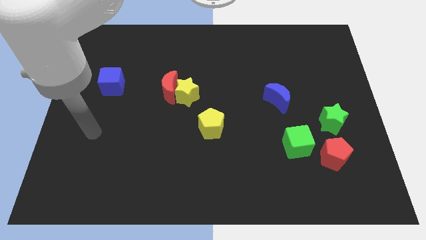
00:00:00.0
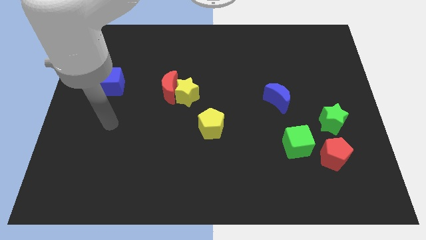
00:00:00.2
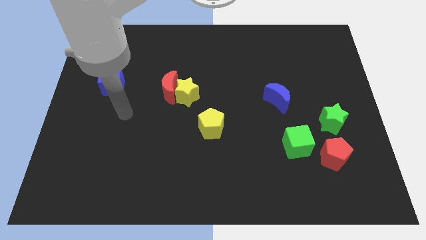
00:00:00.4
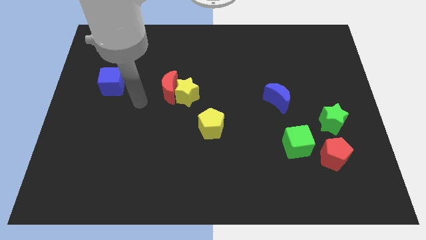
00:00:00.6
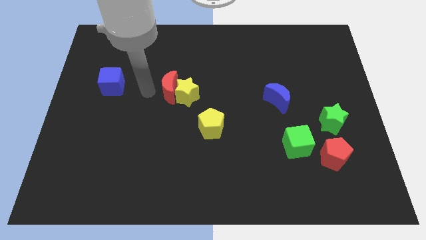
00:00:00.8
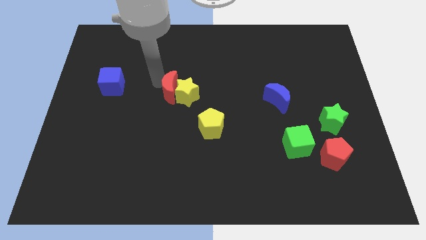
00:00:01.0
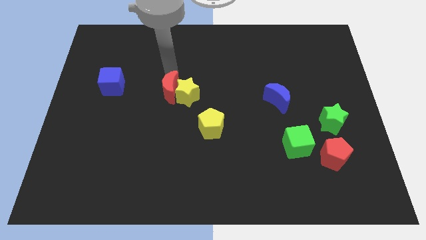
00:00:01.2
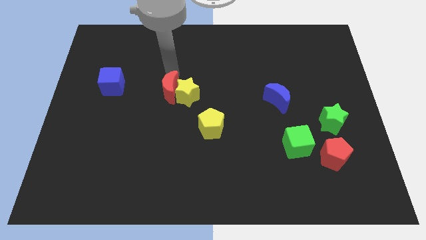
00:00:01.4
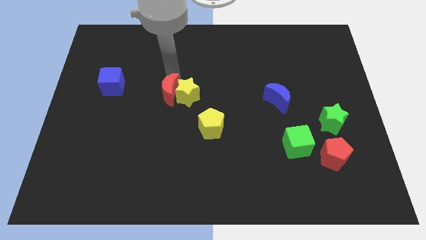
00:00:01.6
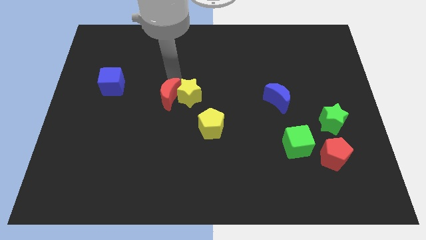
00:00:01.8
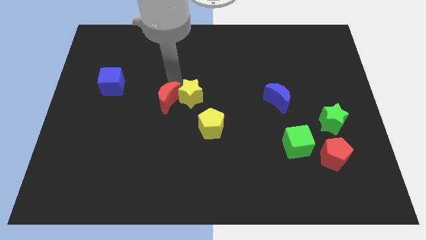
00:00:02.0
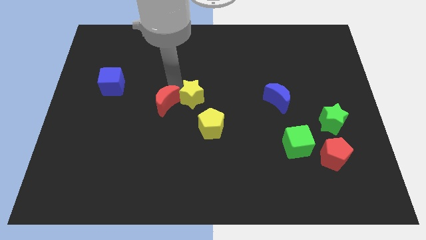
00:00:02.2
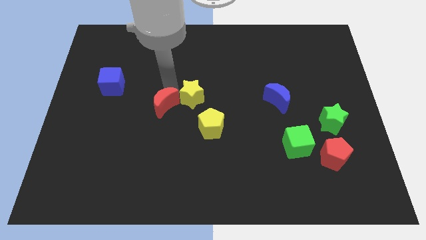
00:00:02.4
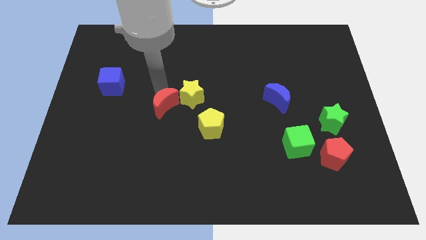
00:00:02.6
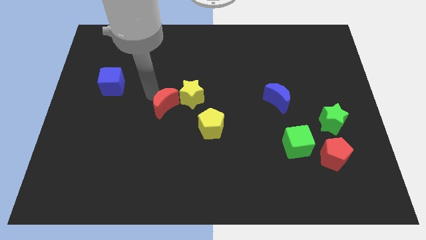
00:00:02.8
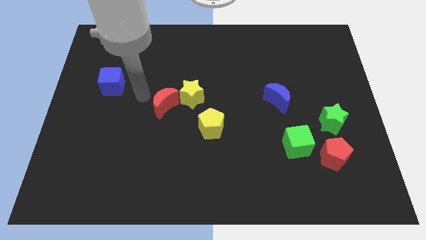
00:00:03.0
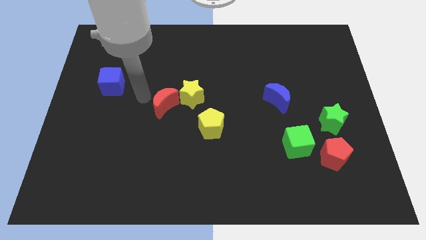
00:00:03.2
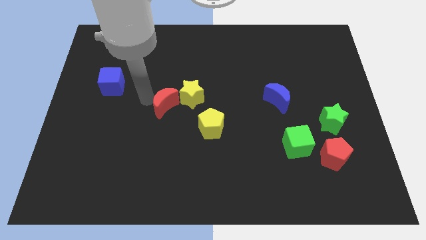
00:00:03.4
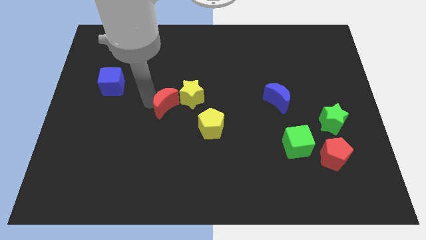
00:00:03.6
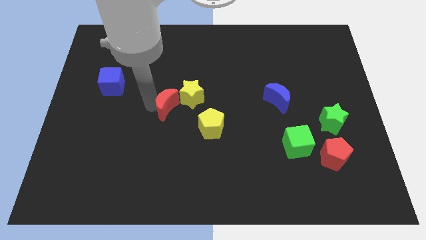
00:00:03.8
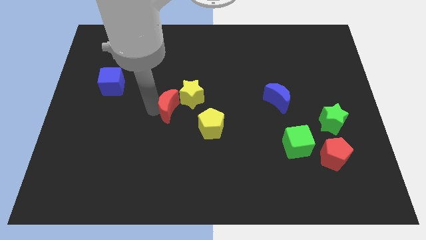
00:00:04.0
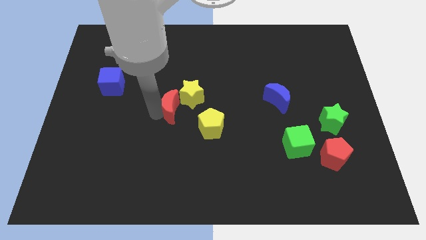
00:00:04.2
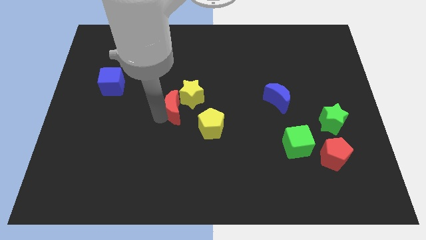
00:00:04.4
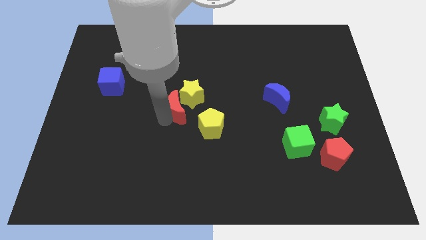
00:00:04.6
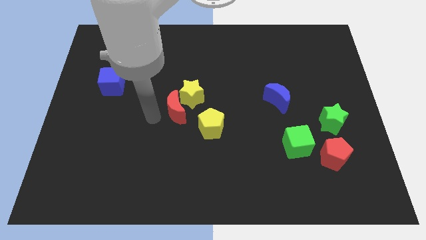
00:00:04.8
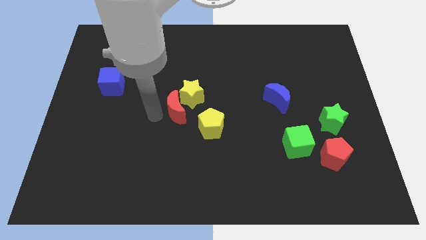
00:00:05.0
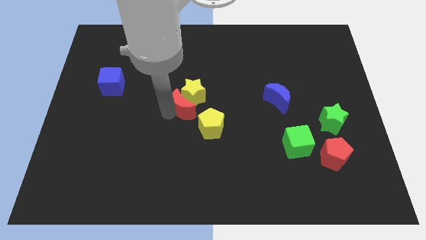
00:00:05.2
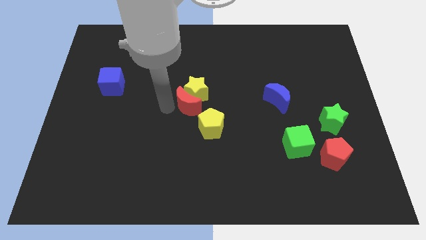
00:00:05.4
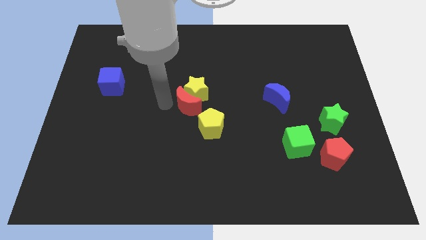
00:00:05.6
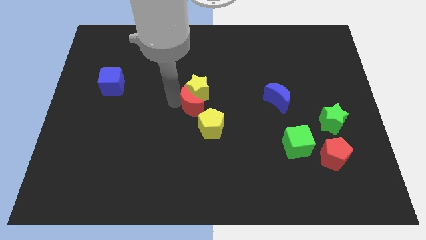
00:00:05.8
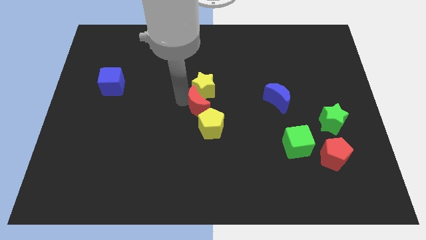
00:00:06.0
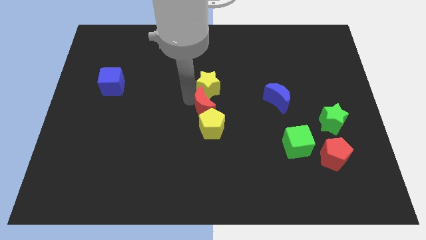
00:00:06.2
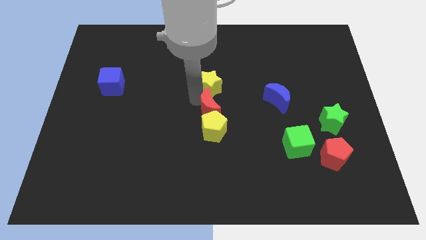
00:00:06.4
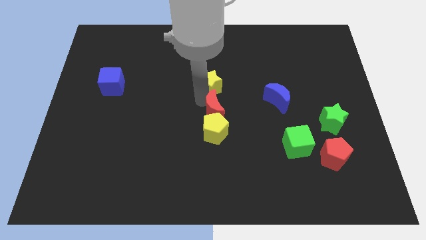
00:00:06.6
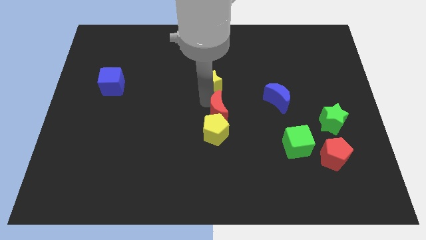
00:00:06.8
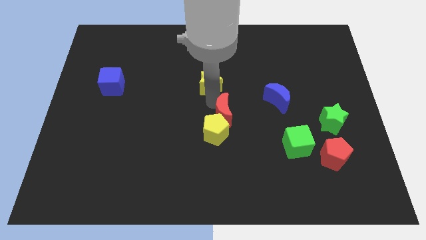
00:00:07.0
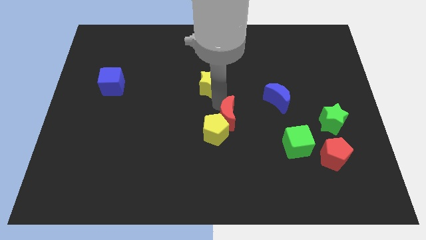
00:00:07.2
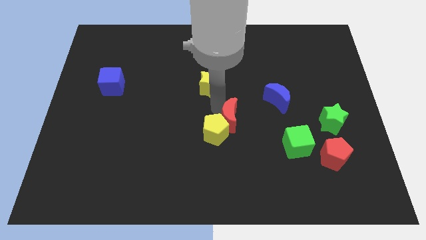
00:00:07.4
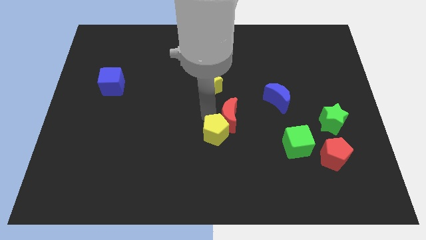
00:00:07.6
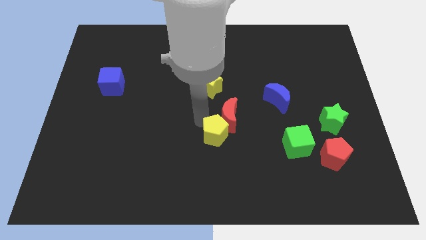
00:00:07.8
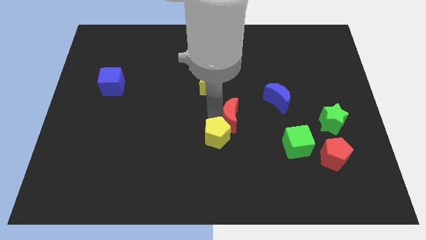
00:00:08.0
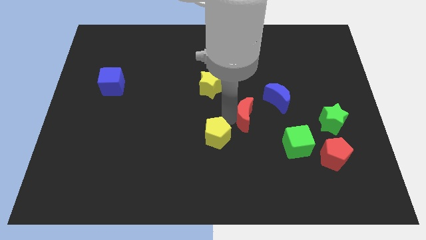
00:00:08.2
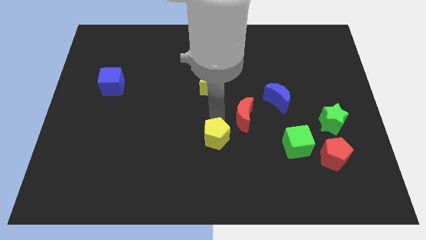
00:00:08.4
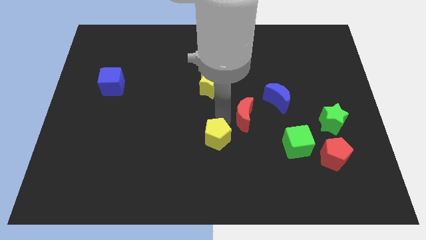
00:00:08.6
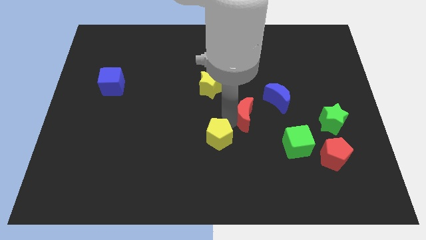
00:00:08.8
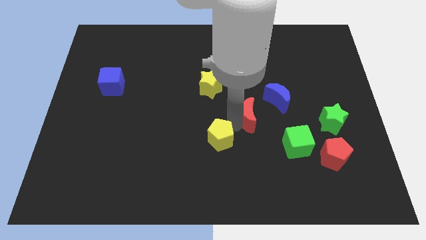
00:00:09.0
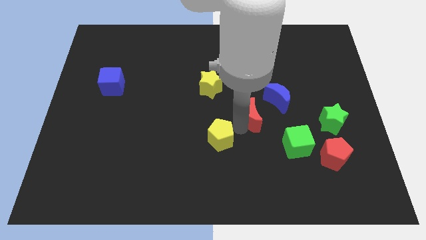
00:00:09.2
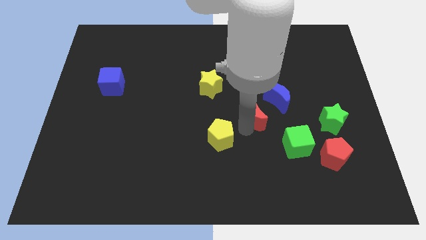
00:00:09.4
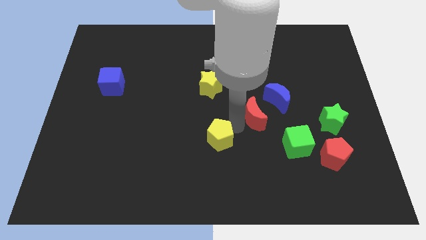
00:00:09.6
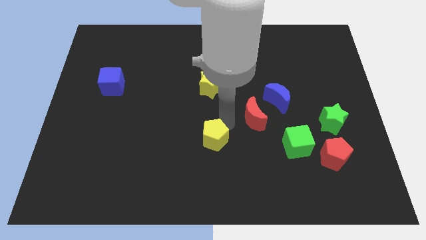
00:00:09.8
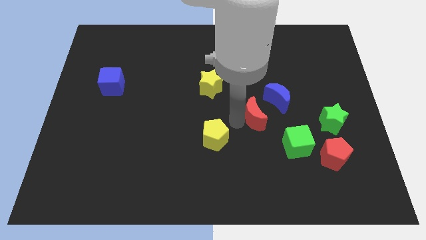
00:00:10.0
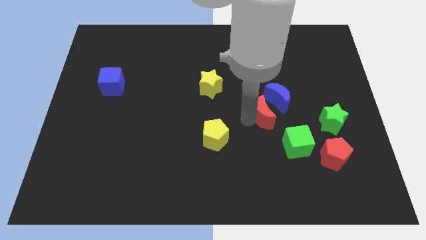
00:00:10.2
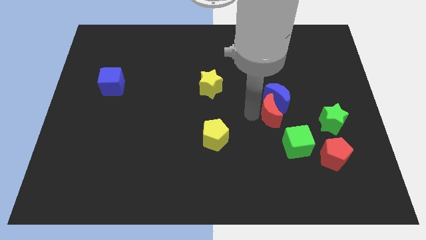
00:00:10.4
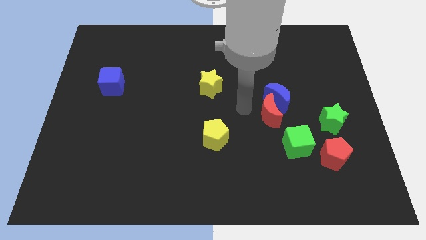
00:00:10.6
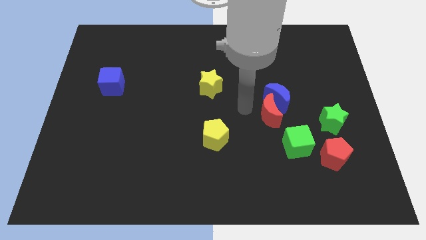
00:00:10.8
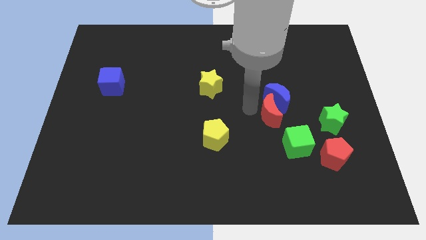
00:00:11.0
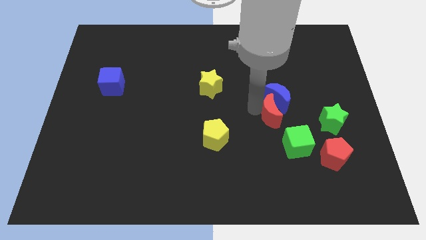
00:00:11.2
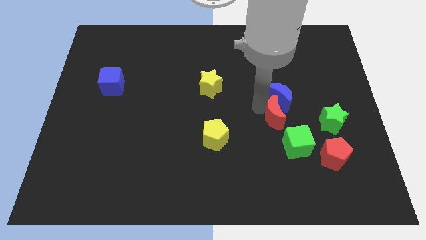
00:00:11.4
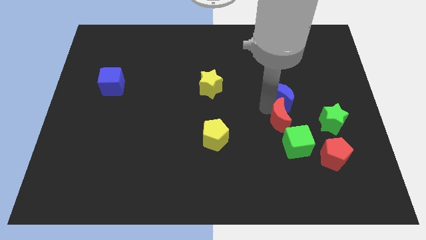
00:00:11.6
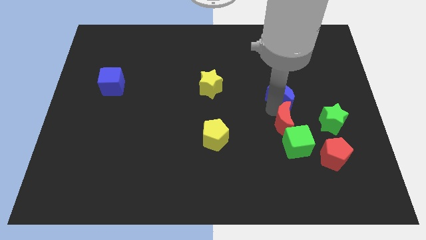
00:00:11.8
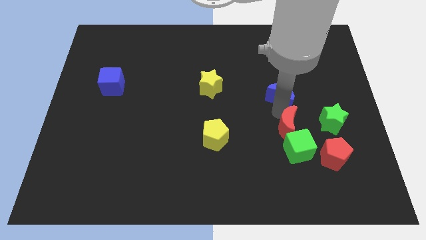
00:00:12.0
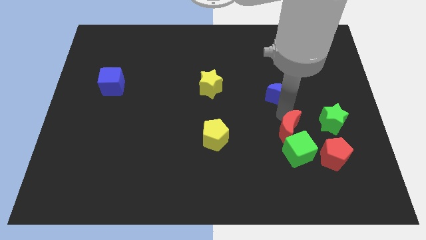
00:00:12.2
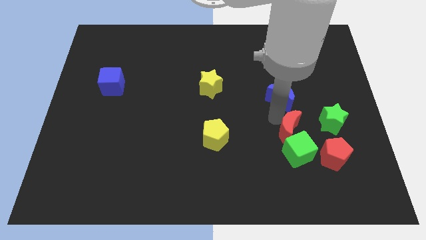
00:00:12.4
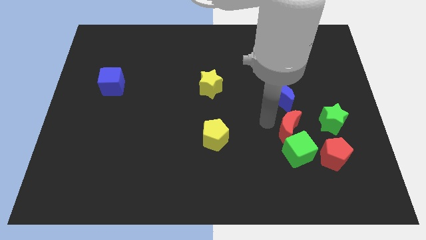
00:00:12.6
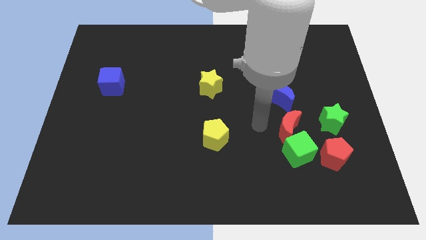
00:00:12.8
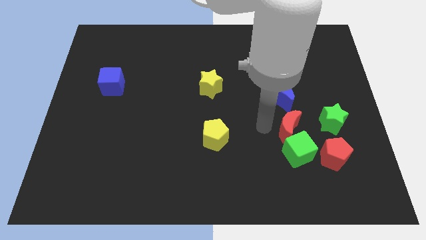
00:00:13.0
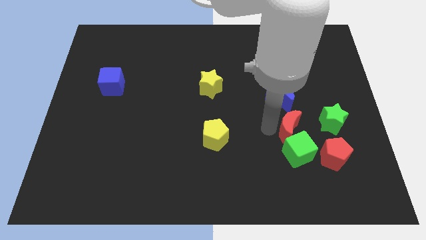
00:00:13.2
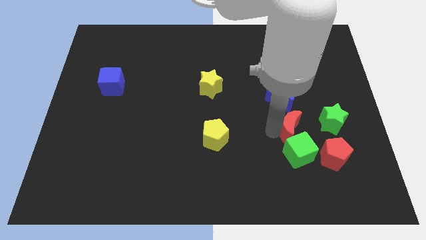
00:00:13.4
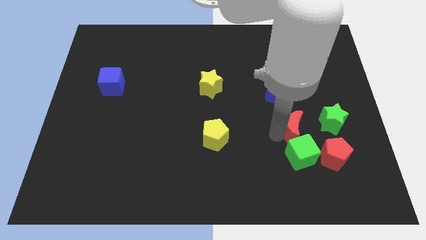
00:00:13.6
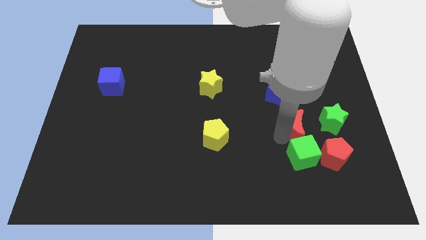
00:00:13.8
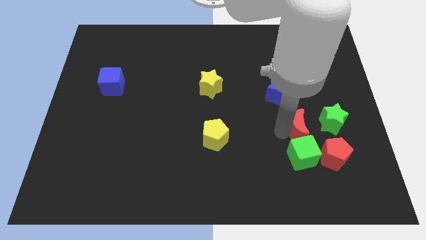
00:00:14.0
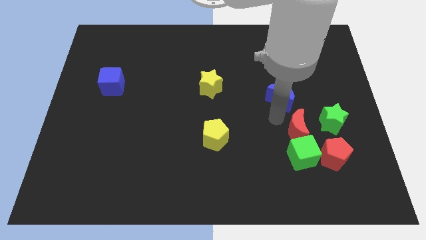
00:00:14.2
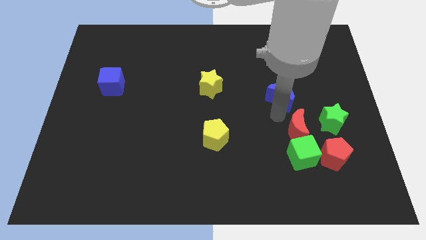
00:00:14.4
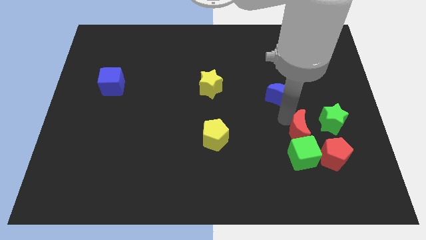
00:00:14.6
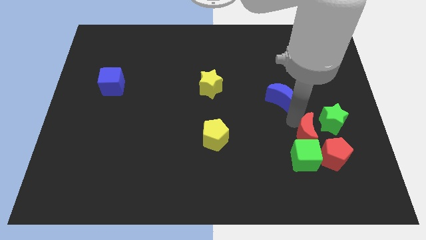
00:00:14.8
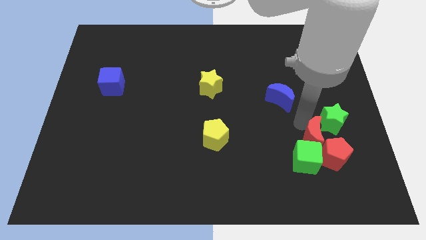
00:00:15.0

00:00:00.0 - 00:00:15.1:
put the red moon next to the red pentagon
